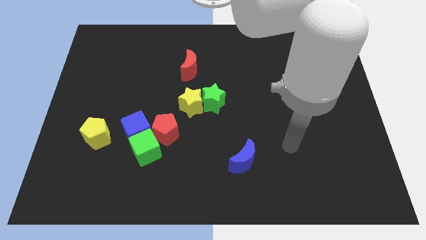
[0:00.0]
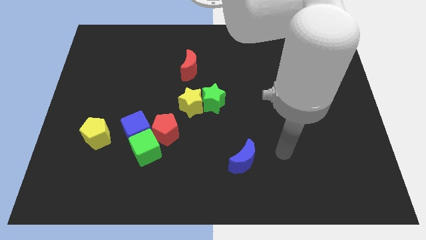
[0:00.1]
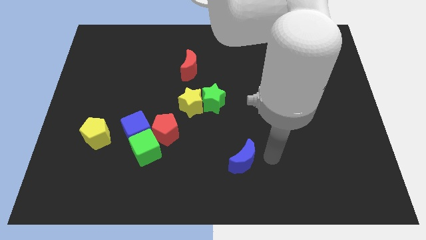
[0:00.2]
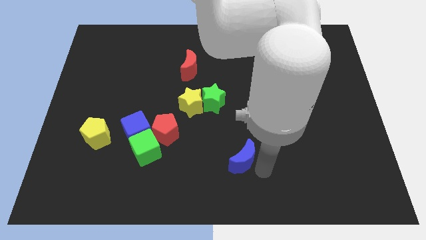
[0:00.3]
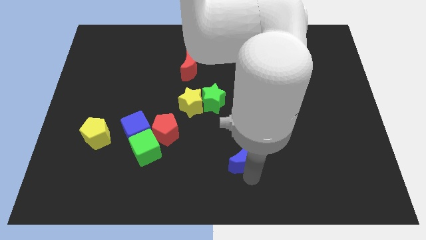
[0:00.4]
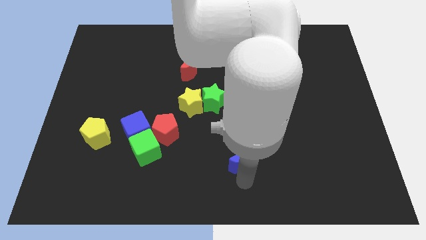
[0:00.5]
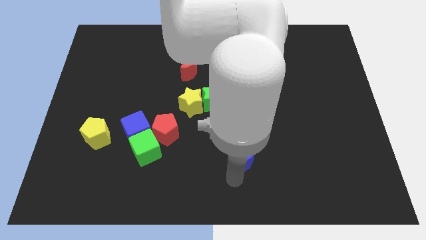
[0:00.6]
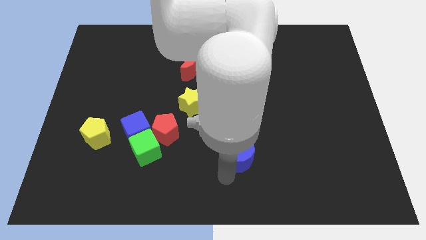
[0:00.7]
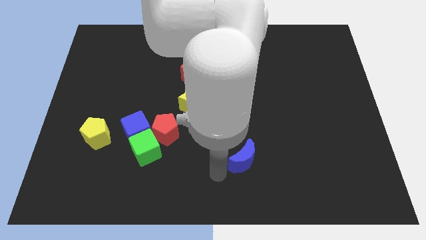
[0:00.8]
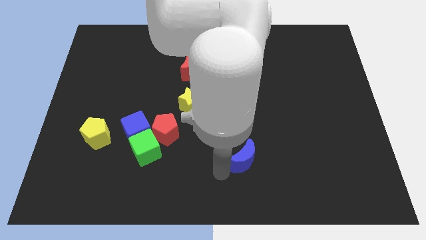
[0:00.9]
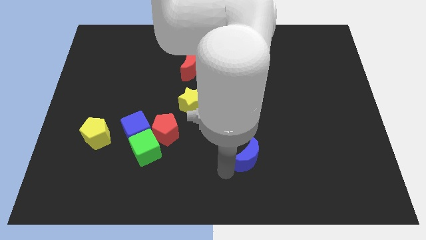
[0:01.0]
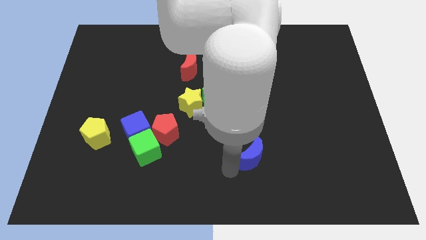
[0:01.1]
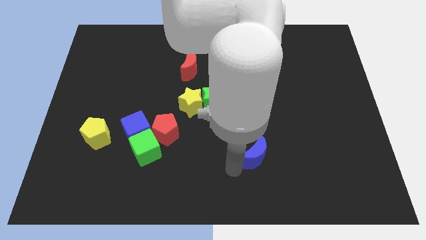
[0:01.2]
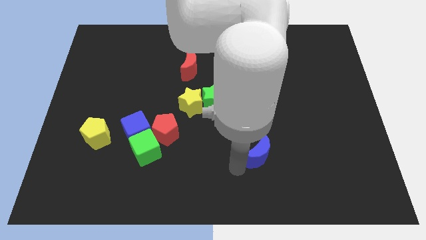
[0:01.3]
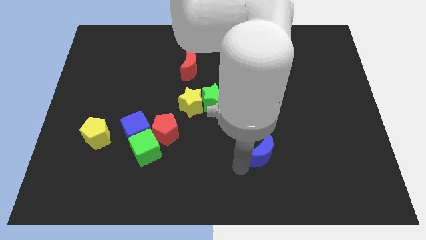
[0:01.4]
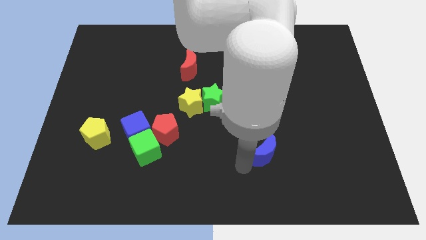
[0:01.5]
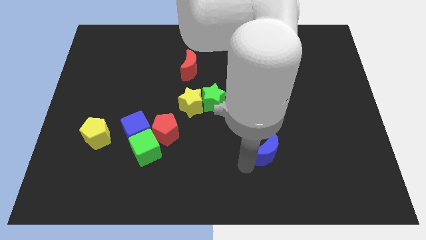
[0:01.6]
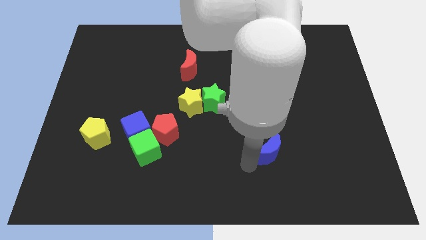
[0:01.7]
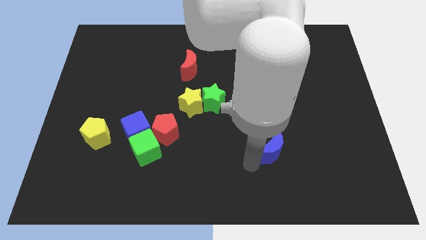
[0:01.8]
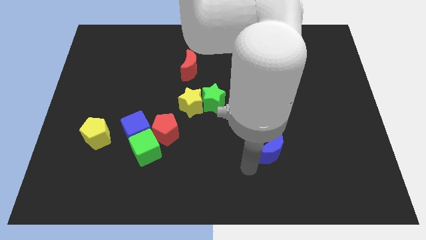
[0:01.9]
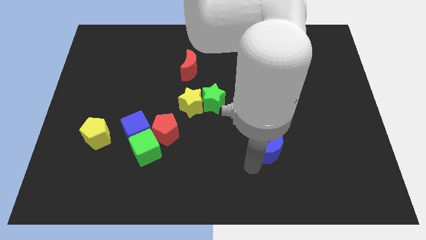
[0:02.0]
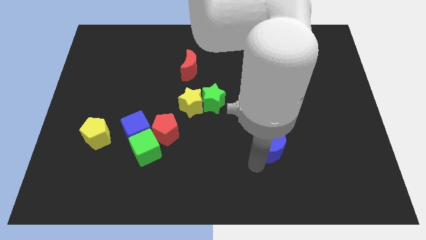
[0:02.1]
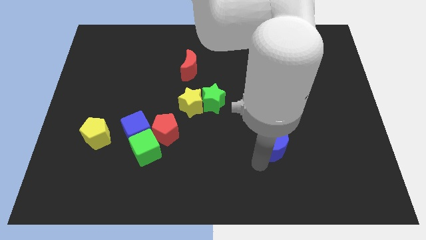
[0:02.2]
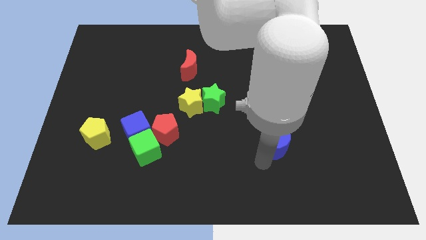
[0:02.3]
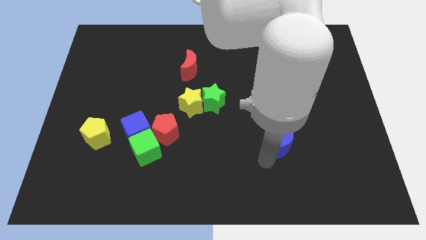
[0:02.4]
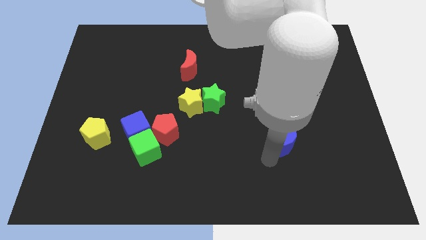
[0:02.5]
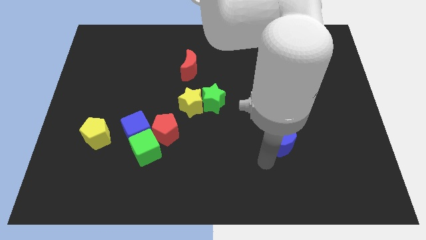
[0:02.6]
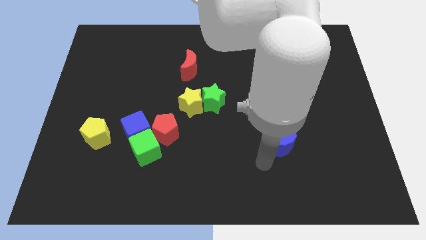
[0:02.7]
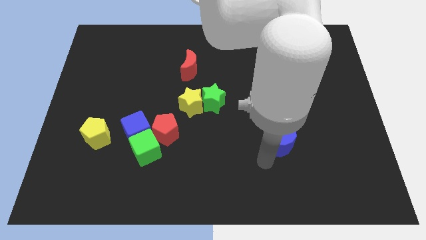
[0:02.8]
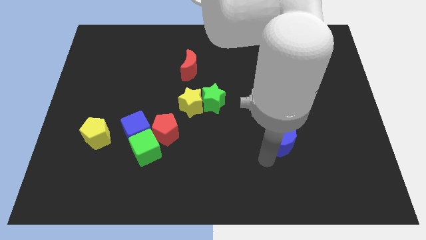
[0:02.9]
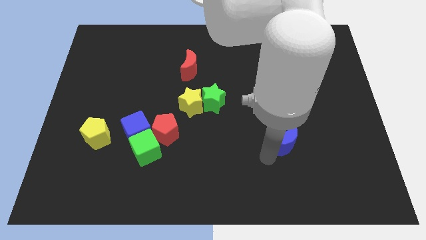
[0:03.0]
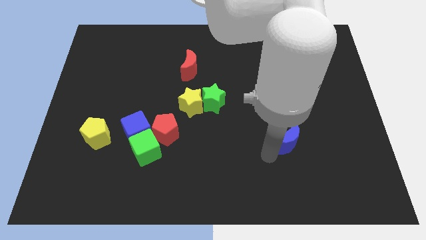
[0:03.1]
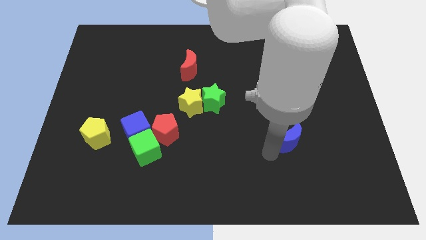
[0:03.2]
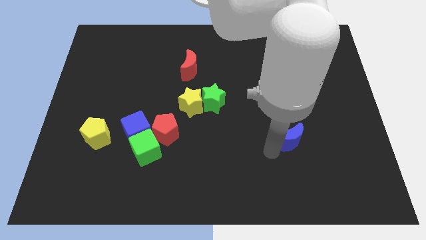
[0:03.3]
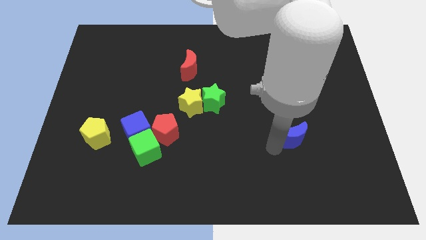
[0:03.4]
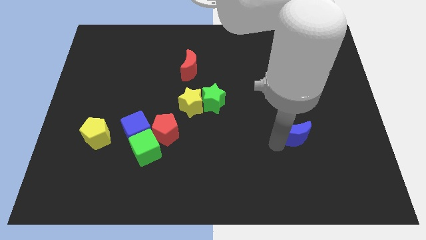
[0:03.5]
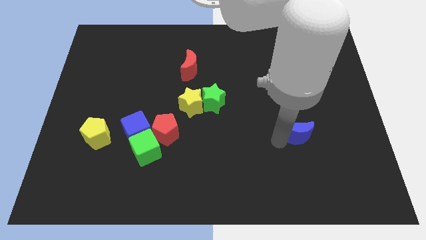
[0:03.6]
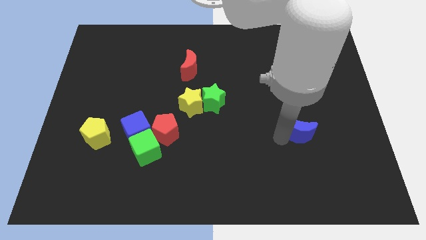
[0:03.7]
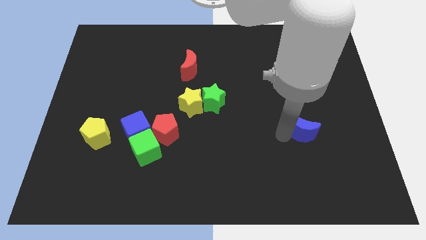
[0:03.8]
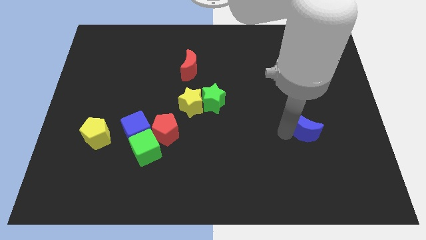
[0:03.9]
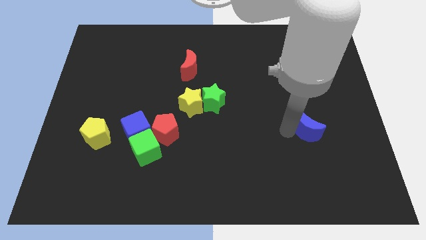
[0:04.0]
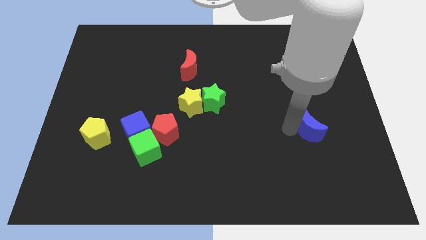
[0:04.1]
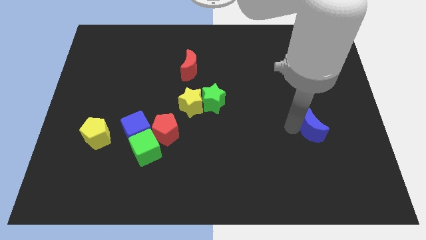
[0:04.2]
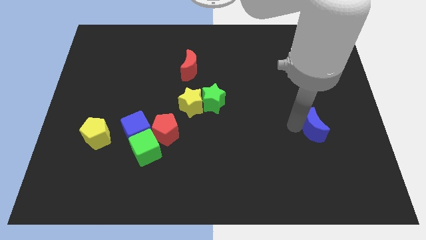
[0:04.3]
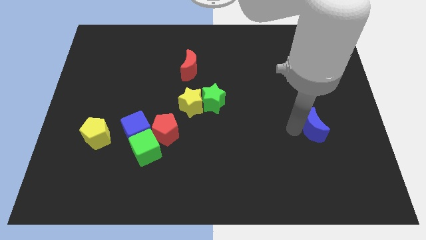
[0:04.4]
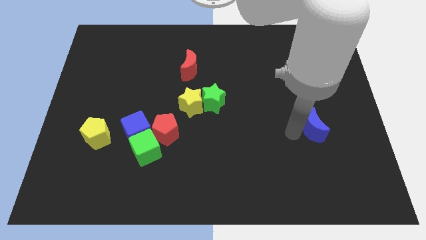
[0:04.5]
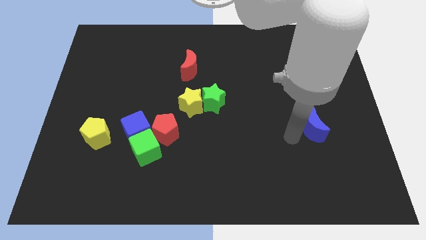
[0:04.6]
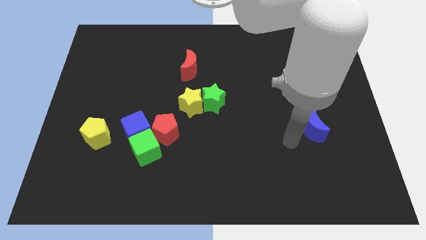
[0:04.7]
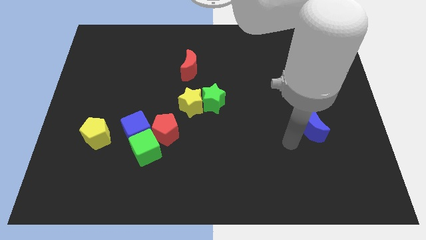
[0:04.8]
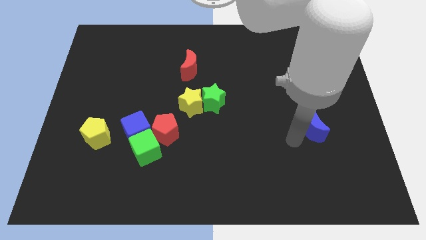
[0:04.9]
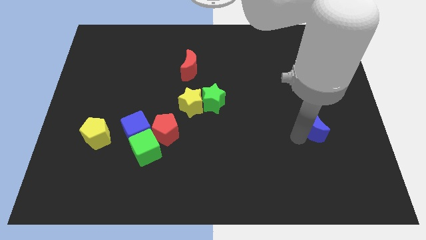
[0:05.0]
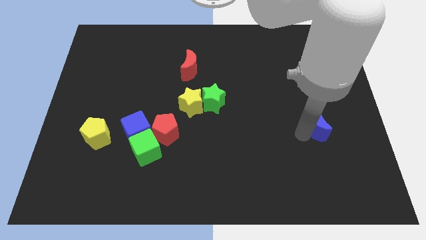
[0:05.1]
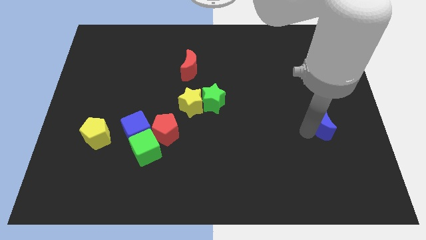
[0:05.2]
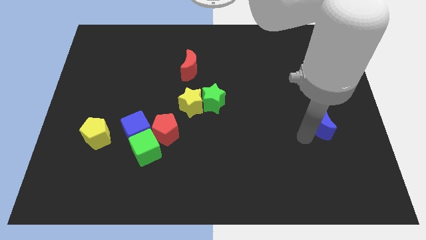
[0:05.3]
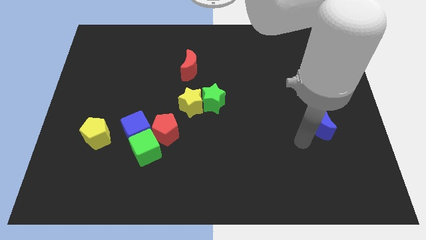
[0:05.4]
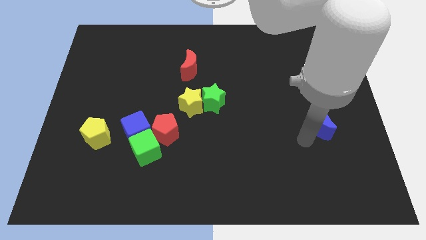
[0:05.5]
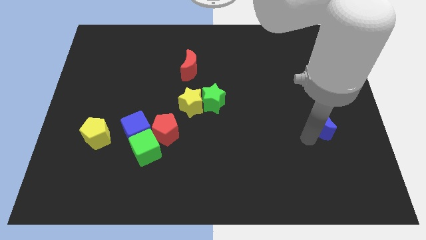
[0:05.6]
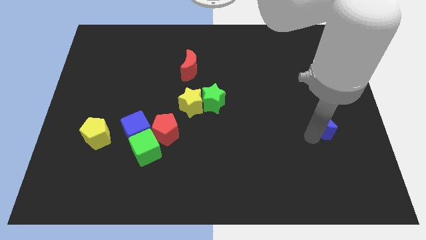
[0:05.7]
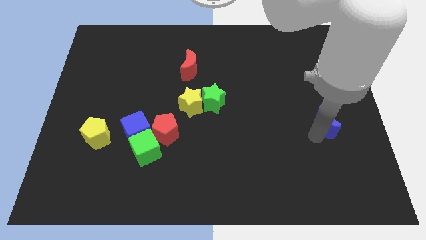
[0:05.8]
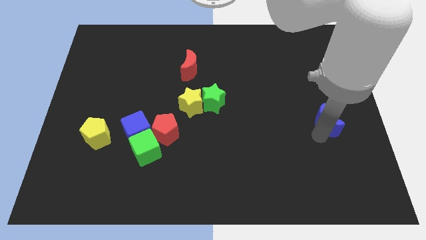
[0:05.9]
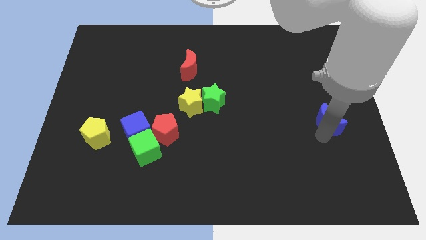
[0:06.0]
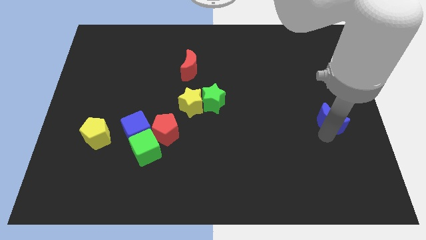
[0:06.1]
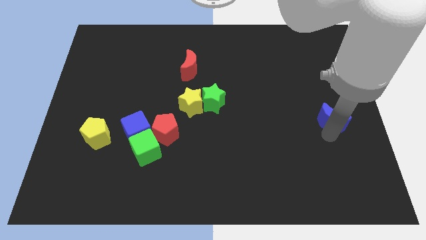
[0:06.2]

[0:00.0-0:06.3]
put the blue moon to the right side of the board
